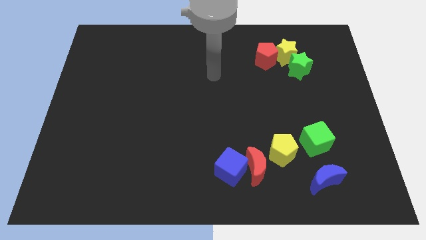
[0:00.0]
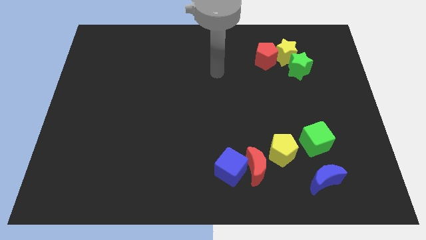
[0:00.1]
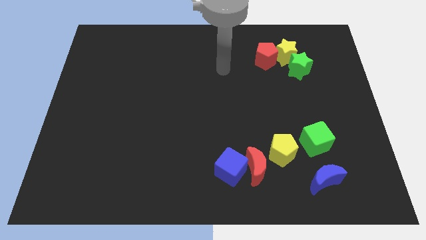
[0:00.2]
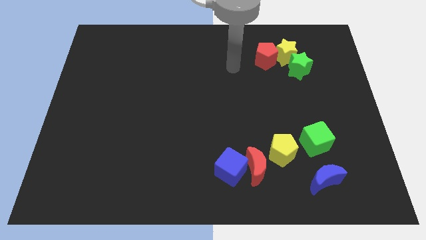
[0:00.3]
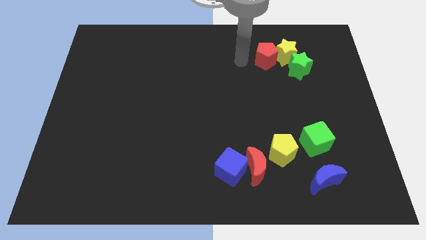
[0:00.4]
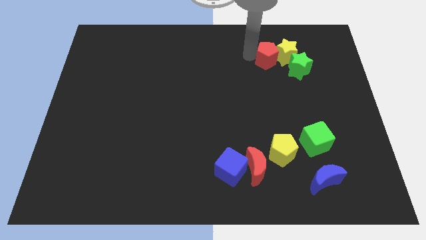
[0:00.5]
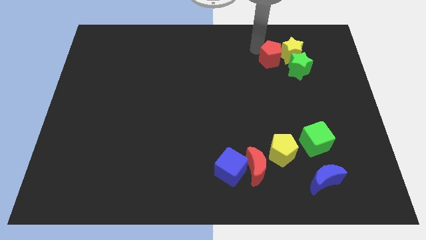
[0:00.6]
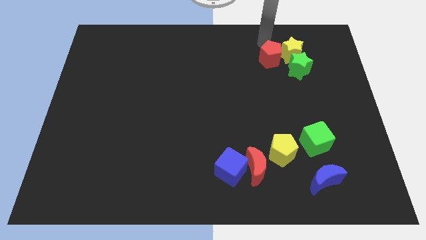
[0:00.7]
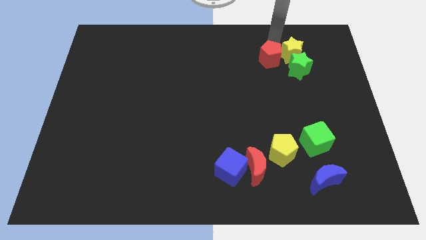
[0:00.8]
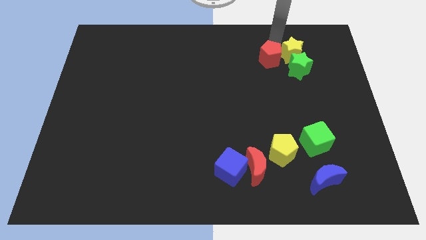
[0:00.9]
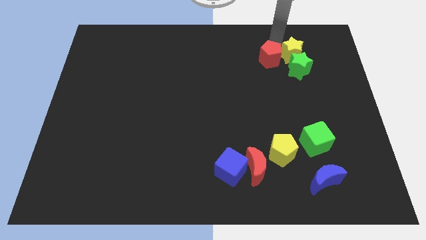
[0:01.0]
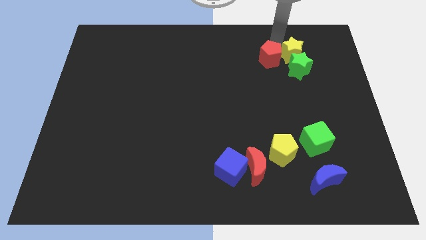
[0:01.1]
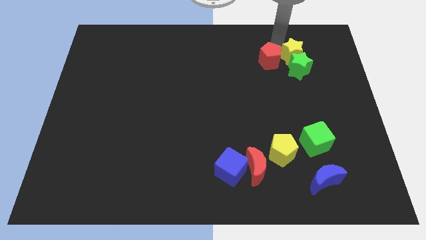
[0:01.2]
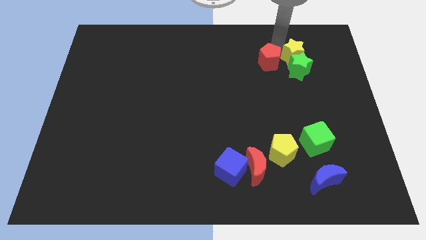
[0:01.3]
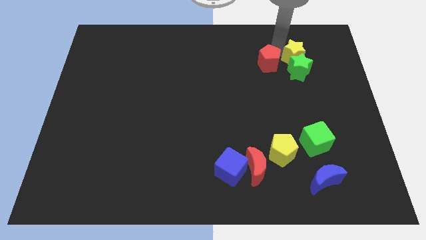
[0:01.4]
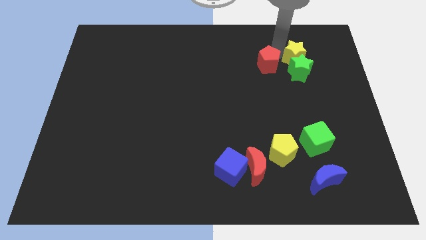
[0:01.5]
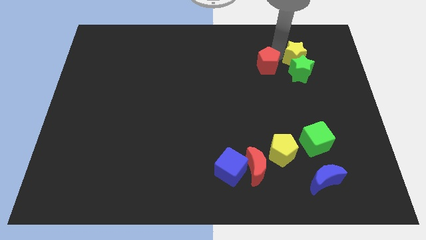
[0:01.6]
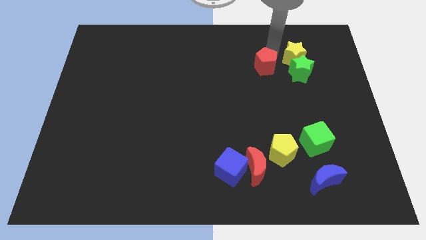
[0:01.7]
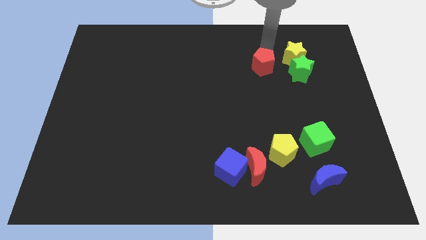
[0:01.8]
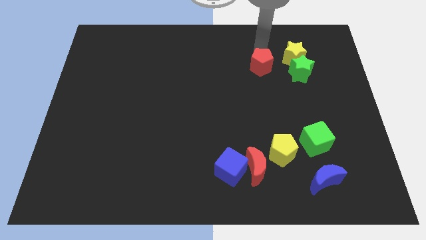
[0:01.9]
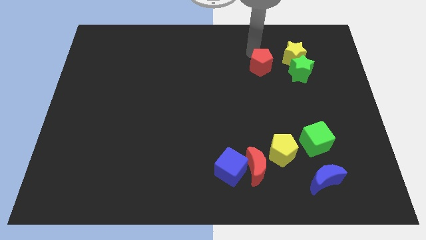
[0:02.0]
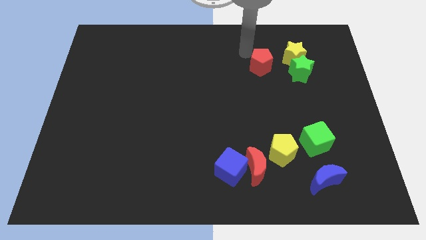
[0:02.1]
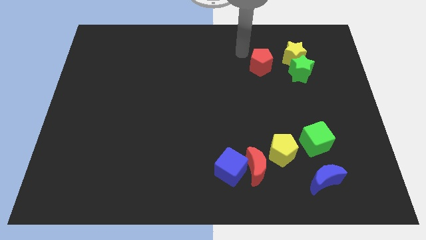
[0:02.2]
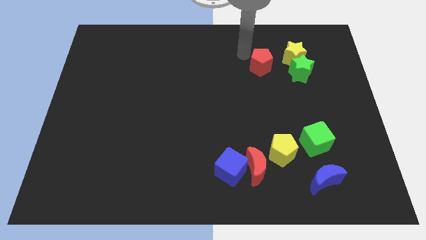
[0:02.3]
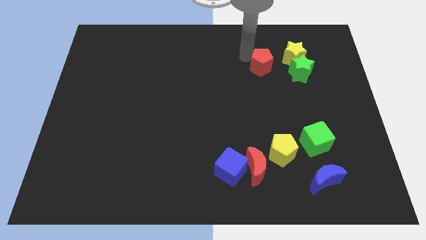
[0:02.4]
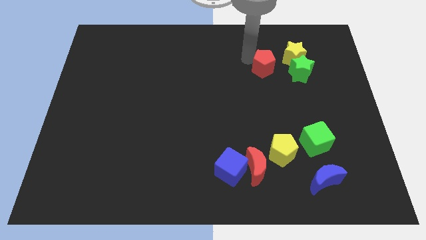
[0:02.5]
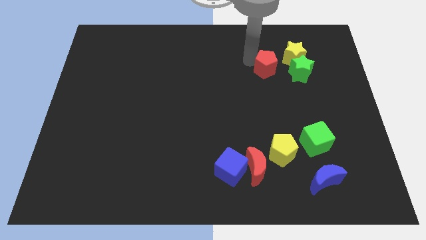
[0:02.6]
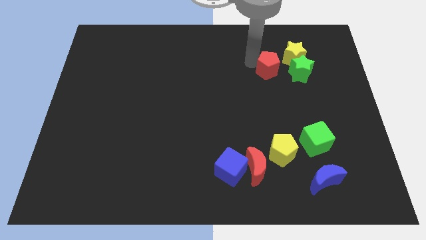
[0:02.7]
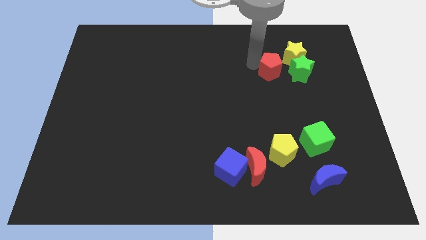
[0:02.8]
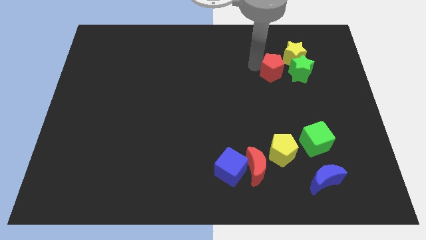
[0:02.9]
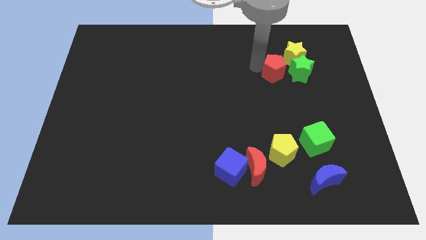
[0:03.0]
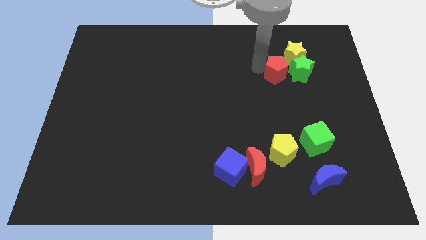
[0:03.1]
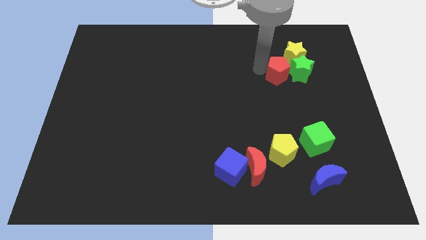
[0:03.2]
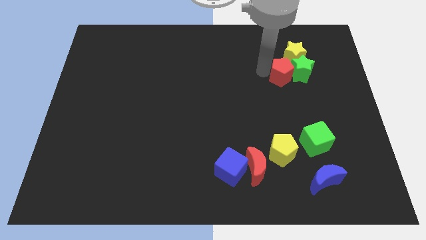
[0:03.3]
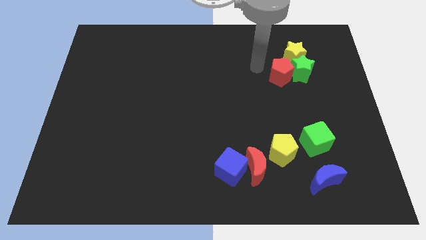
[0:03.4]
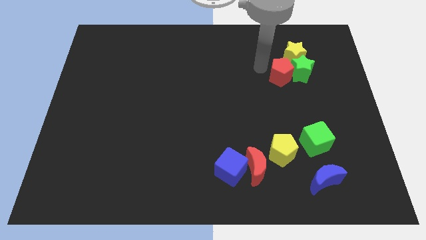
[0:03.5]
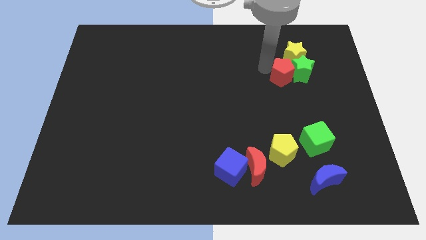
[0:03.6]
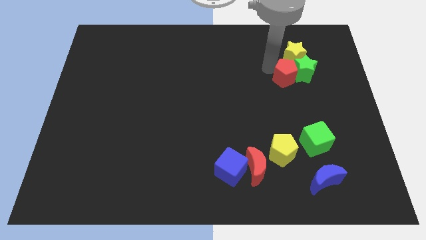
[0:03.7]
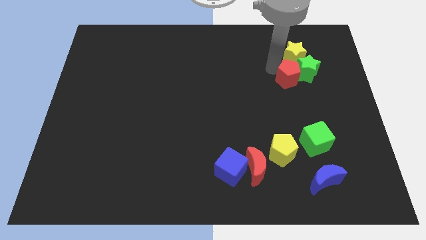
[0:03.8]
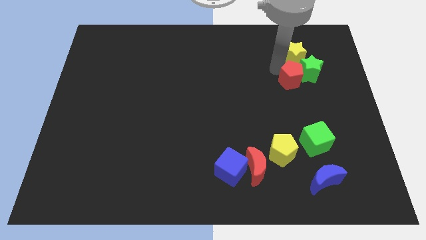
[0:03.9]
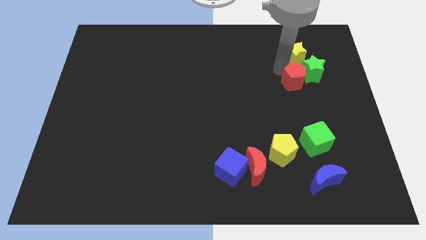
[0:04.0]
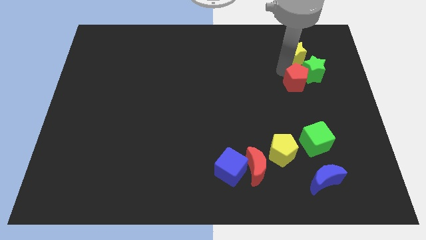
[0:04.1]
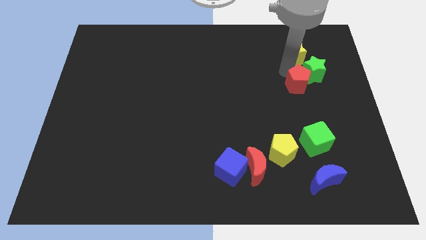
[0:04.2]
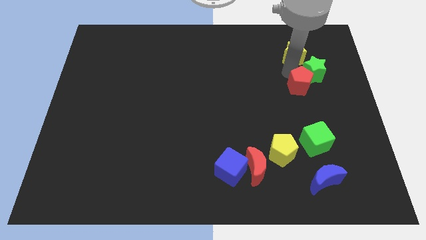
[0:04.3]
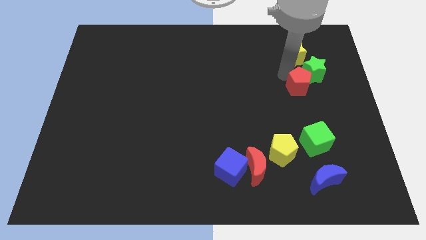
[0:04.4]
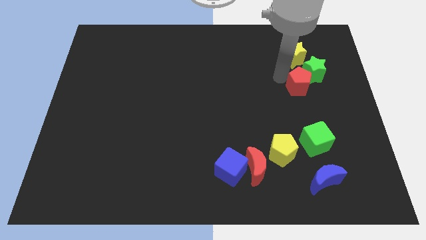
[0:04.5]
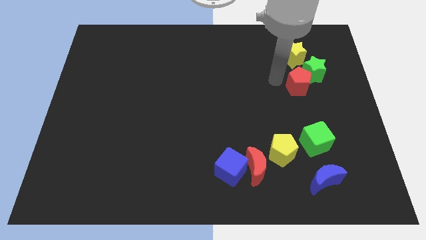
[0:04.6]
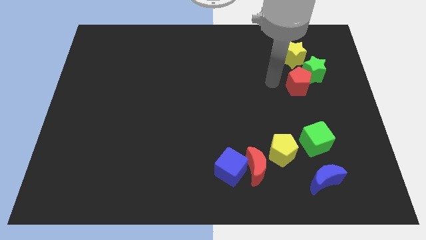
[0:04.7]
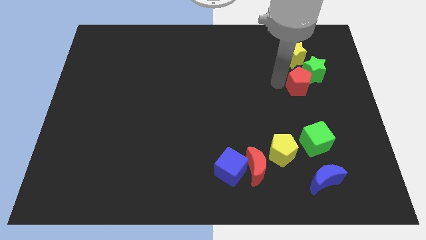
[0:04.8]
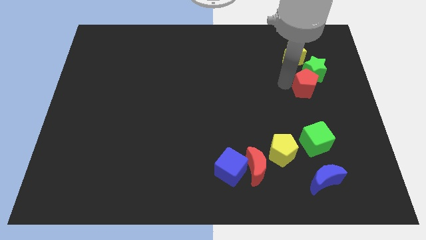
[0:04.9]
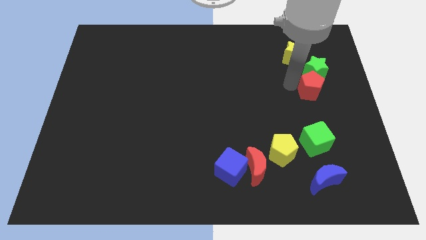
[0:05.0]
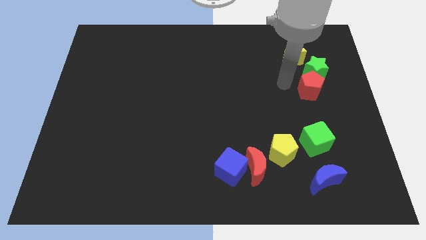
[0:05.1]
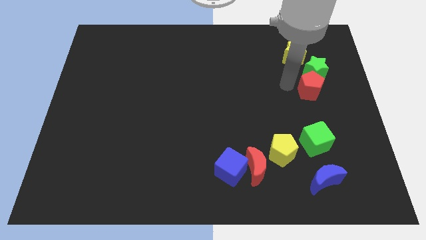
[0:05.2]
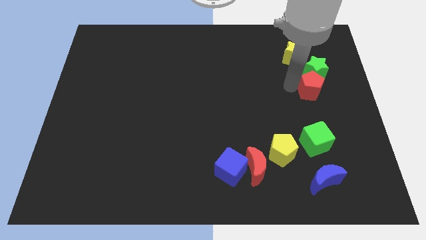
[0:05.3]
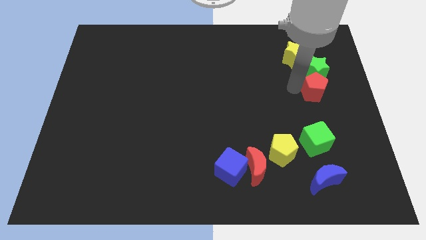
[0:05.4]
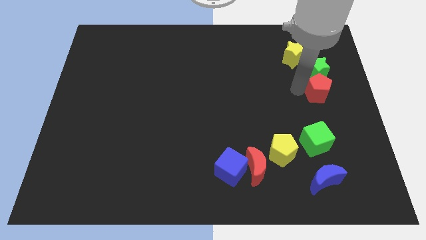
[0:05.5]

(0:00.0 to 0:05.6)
put the red pentagon to the center right

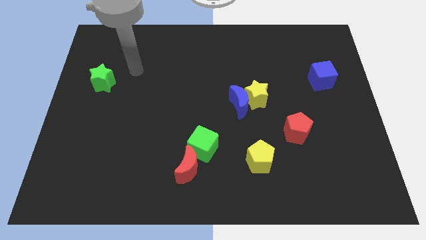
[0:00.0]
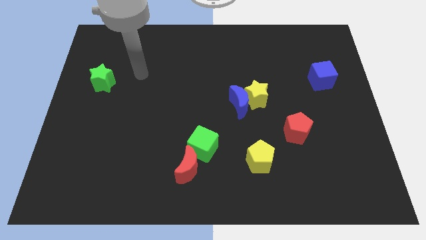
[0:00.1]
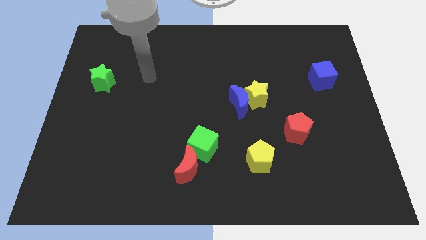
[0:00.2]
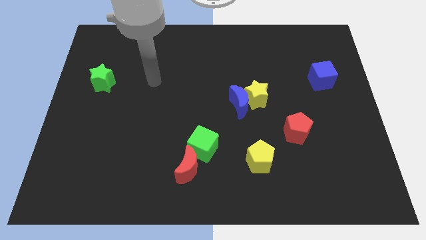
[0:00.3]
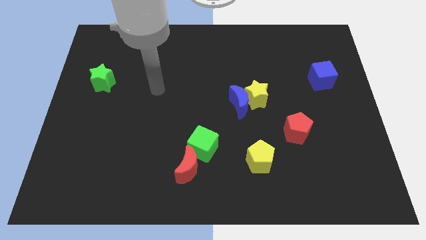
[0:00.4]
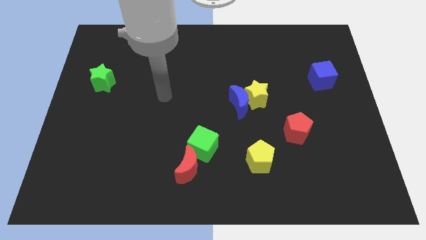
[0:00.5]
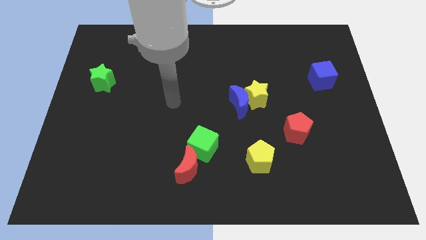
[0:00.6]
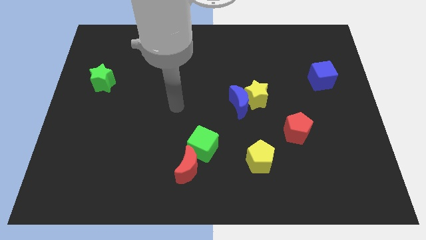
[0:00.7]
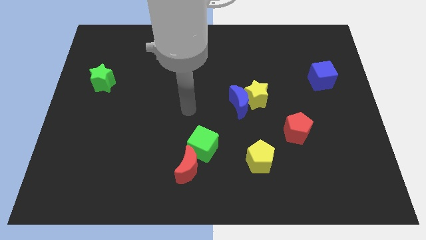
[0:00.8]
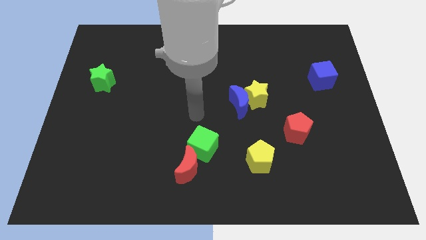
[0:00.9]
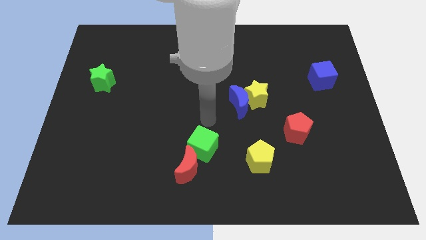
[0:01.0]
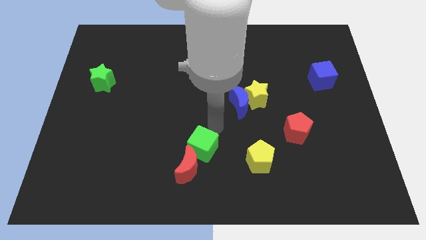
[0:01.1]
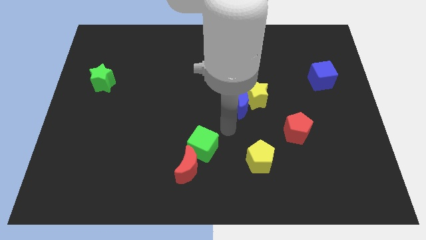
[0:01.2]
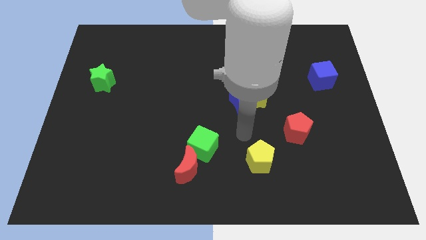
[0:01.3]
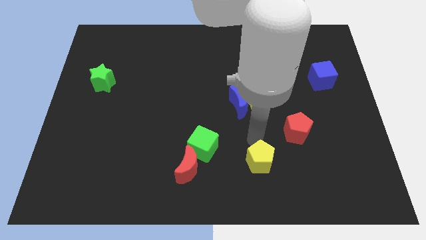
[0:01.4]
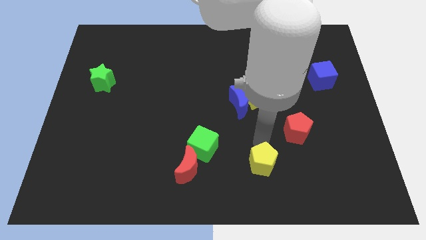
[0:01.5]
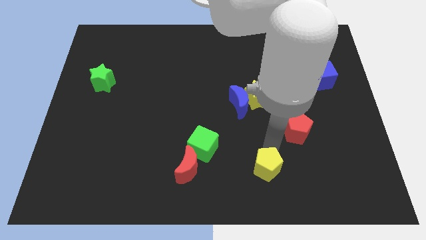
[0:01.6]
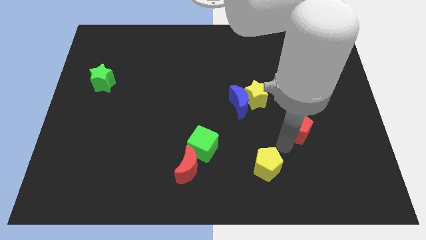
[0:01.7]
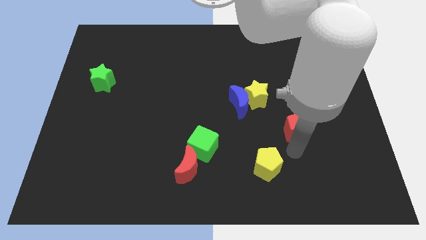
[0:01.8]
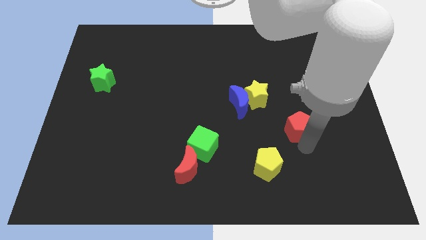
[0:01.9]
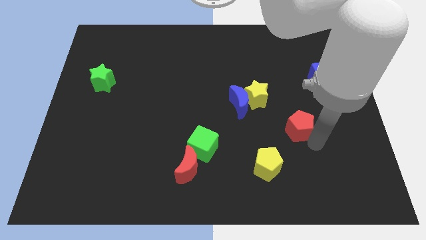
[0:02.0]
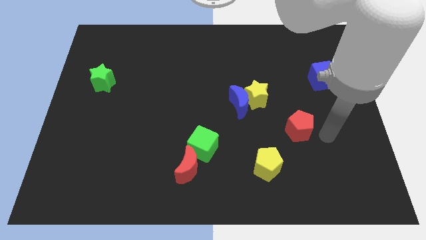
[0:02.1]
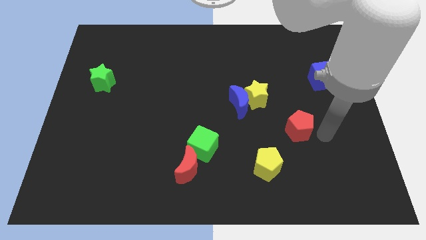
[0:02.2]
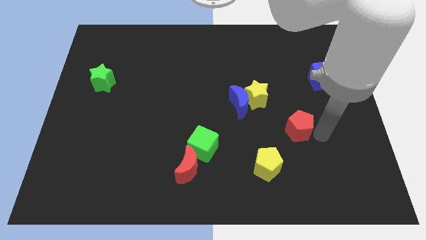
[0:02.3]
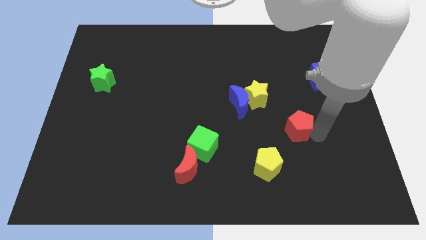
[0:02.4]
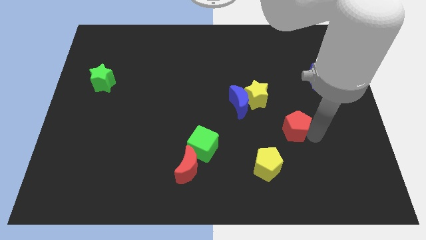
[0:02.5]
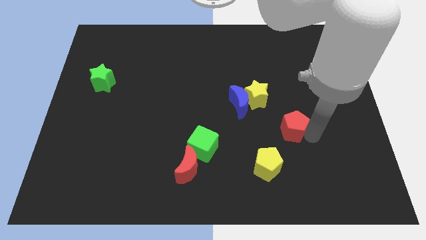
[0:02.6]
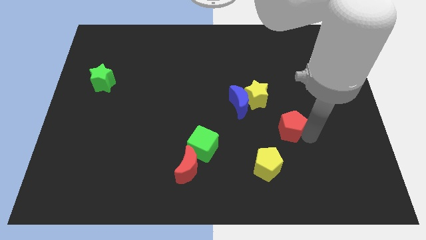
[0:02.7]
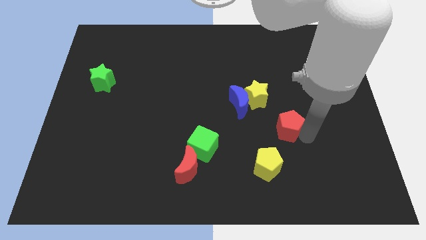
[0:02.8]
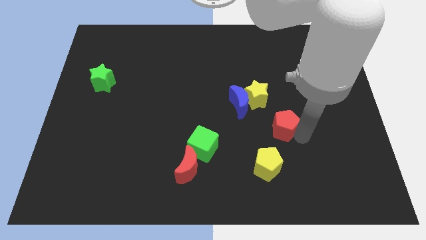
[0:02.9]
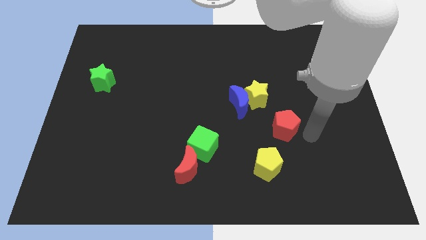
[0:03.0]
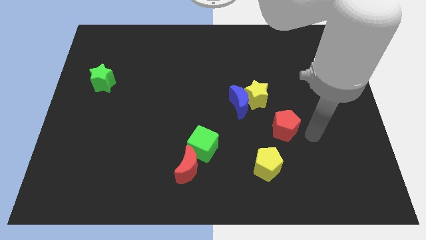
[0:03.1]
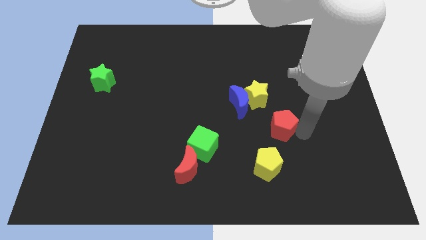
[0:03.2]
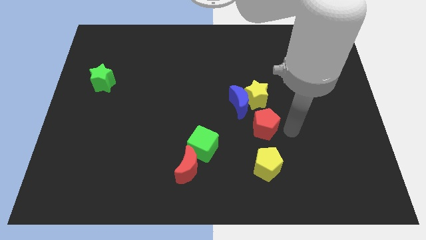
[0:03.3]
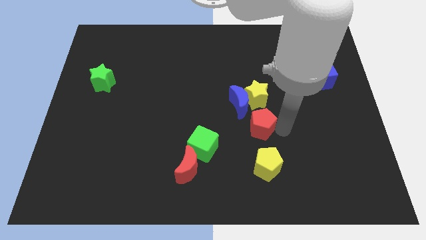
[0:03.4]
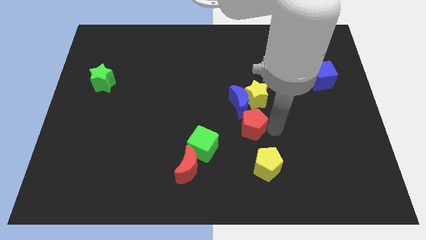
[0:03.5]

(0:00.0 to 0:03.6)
put the red pentagon to the middle
